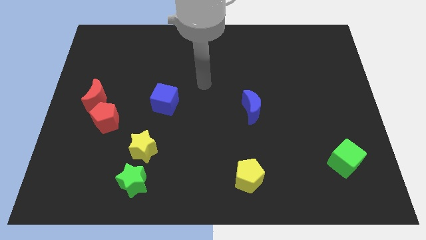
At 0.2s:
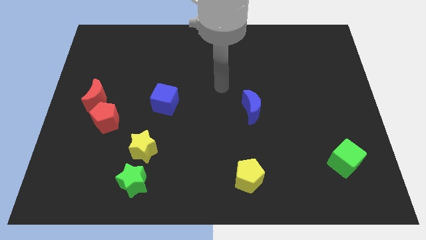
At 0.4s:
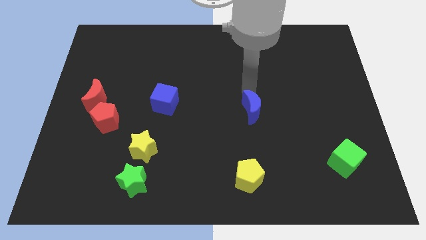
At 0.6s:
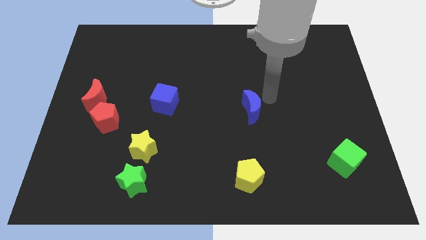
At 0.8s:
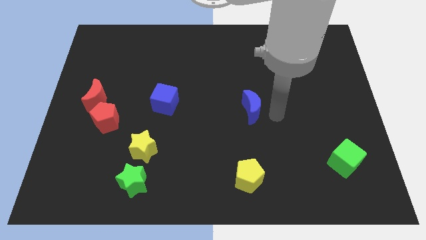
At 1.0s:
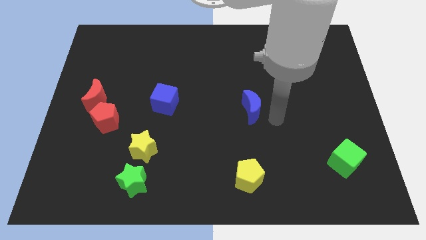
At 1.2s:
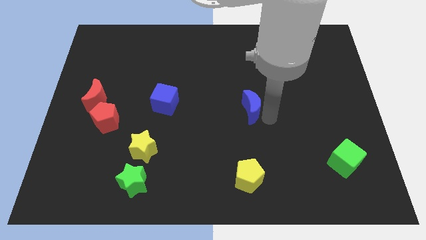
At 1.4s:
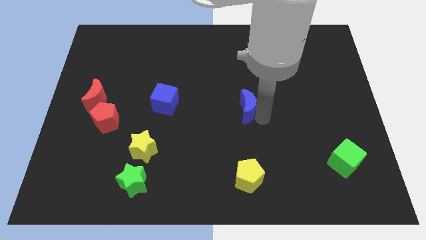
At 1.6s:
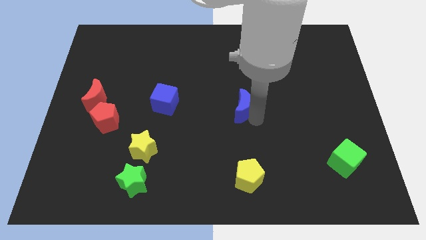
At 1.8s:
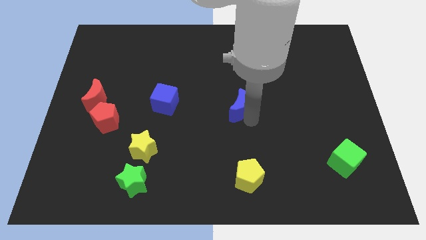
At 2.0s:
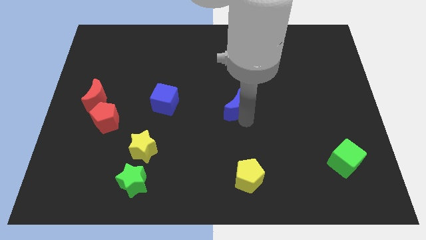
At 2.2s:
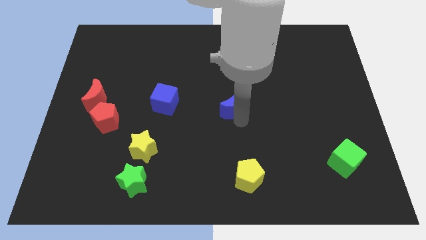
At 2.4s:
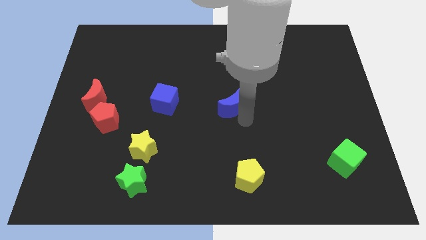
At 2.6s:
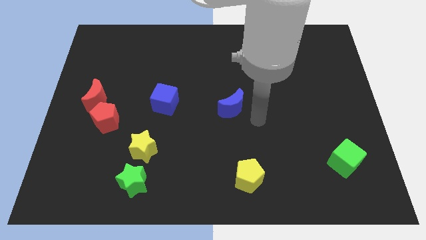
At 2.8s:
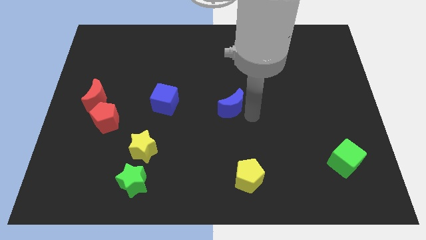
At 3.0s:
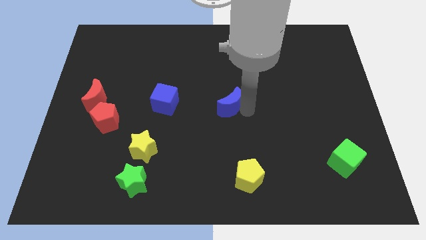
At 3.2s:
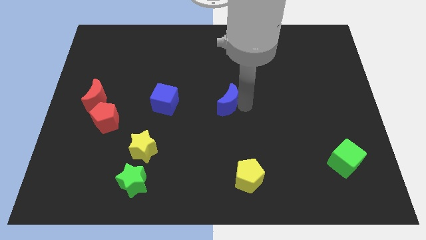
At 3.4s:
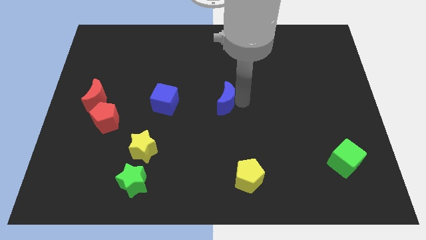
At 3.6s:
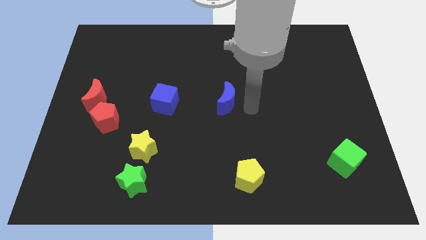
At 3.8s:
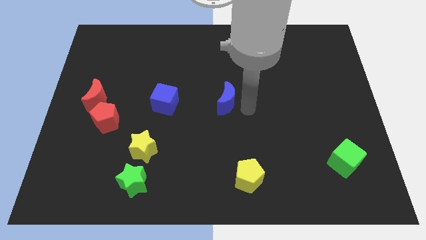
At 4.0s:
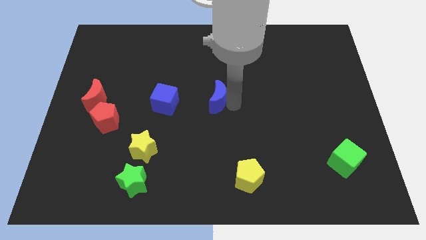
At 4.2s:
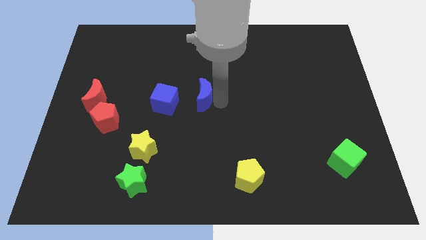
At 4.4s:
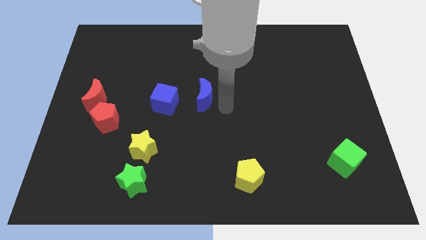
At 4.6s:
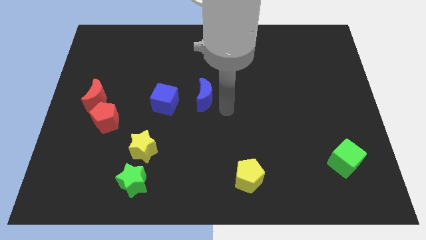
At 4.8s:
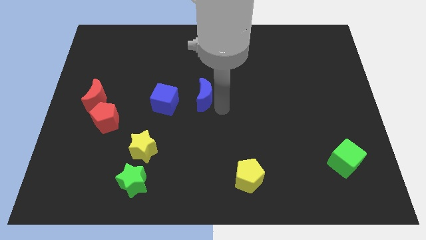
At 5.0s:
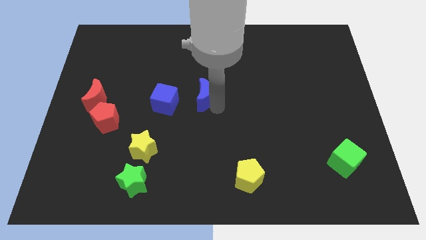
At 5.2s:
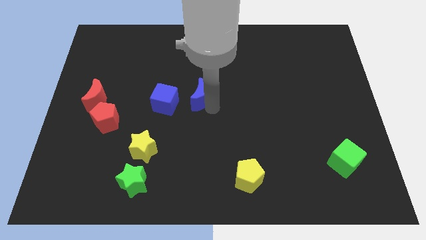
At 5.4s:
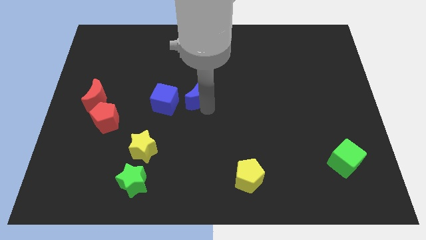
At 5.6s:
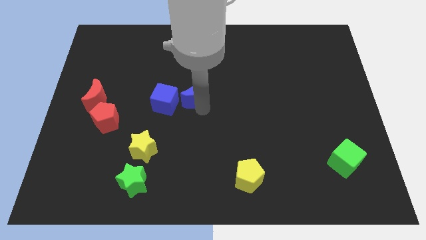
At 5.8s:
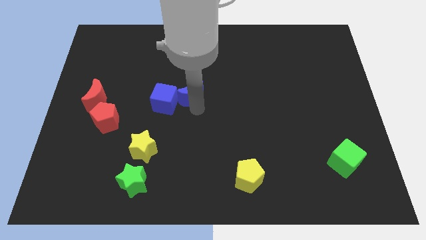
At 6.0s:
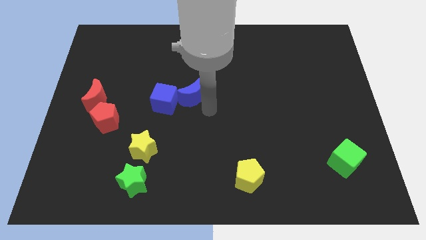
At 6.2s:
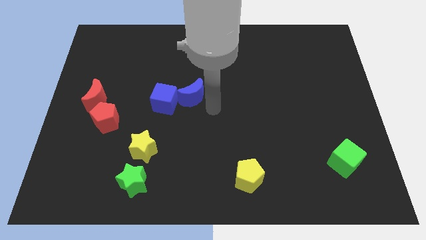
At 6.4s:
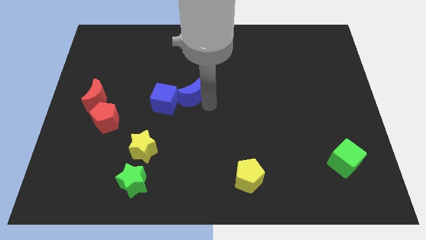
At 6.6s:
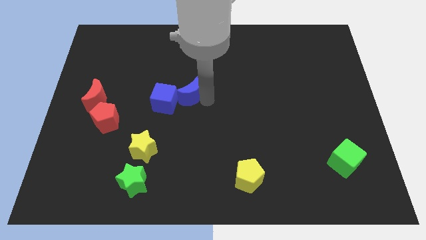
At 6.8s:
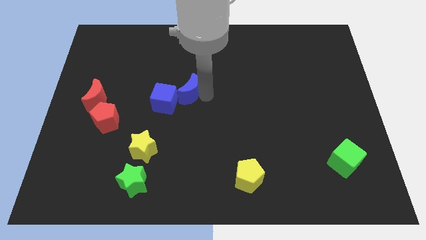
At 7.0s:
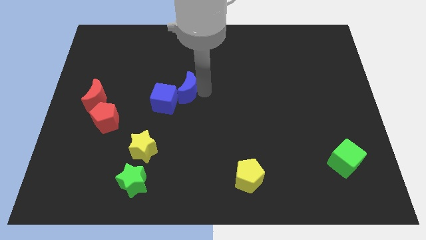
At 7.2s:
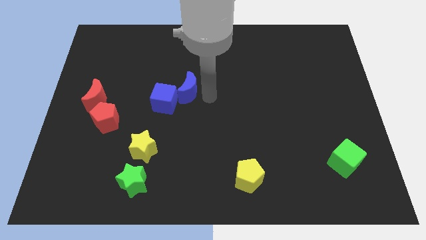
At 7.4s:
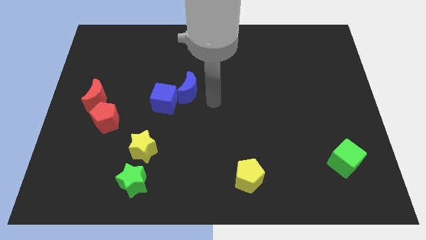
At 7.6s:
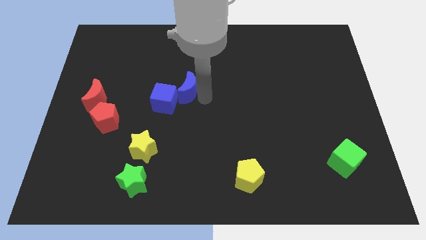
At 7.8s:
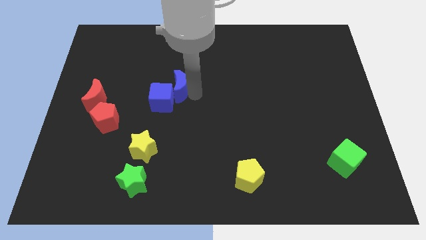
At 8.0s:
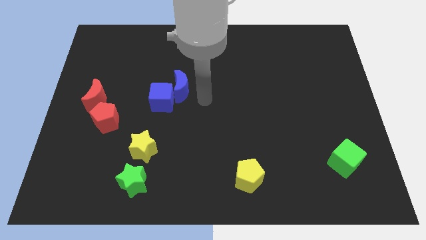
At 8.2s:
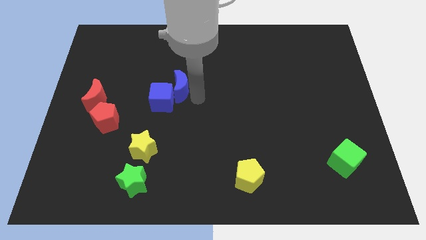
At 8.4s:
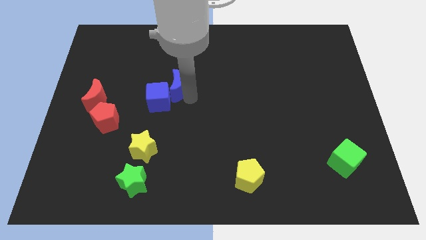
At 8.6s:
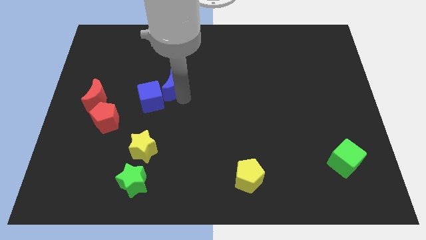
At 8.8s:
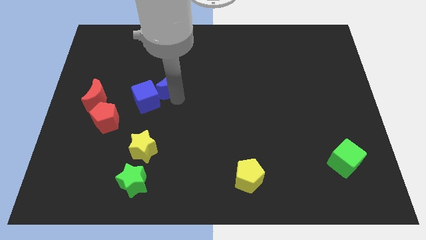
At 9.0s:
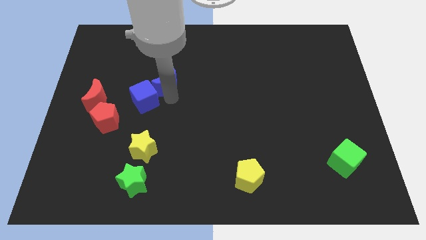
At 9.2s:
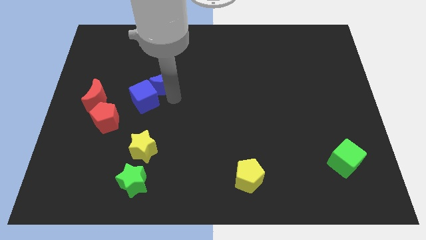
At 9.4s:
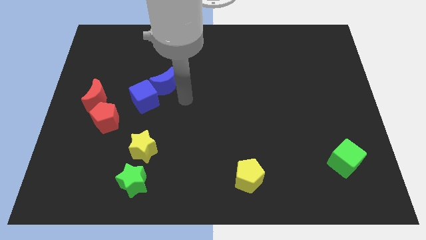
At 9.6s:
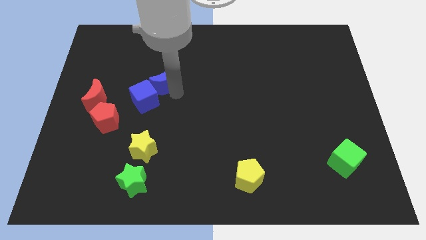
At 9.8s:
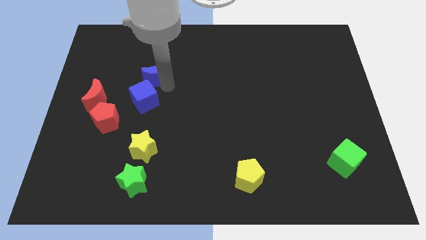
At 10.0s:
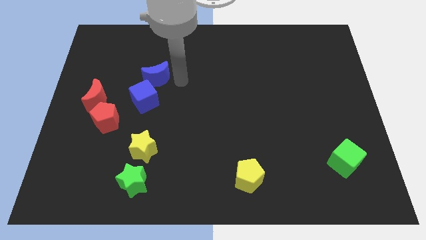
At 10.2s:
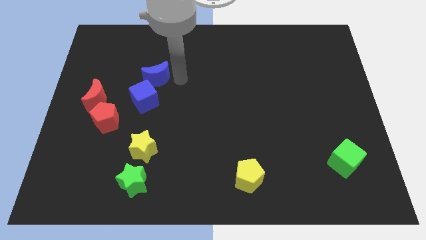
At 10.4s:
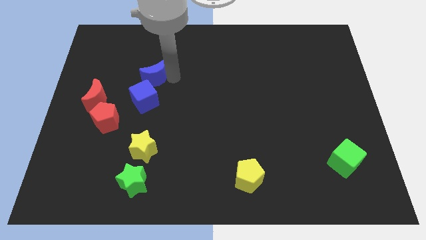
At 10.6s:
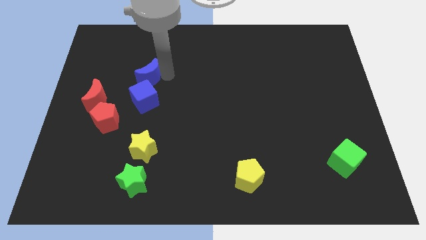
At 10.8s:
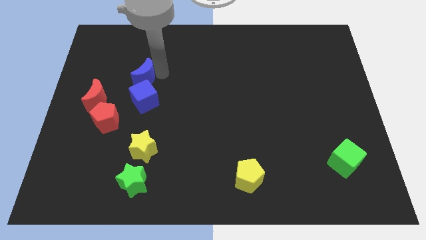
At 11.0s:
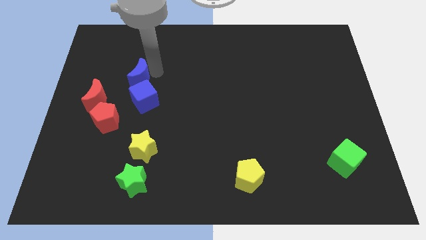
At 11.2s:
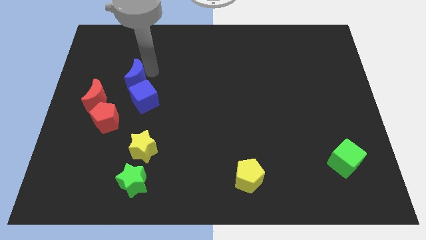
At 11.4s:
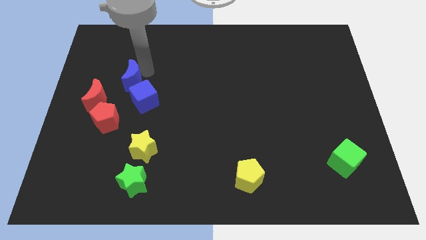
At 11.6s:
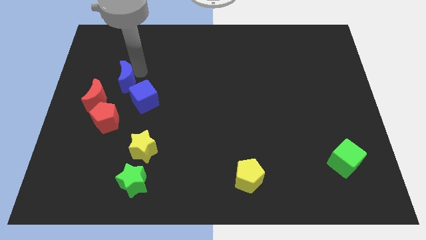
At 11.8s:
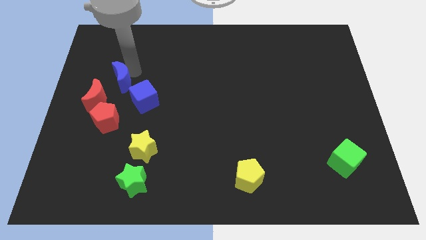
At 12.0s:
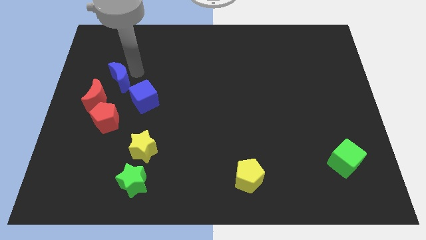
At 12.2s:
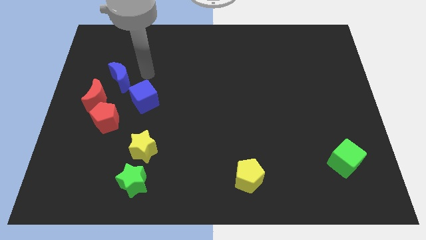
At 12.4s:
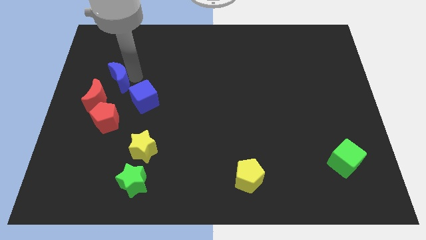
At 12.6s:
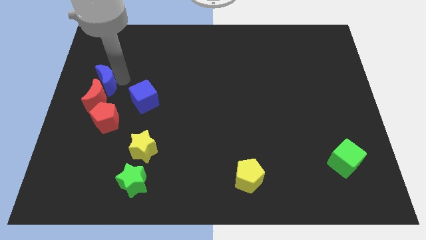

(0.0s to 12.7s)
slide the blue moon to the left side
